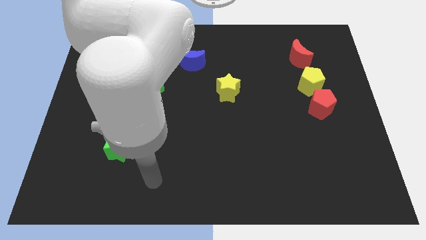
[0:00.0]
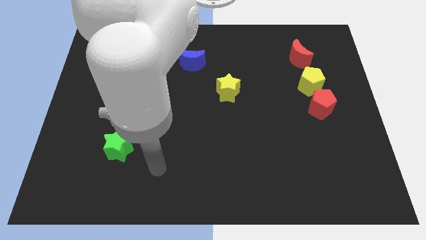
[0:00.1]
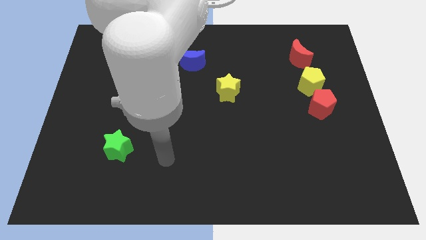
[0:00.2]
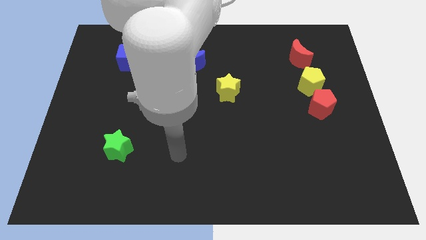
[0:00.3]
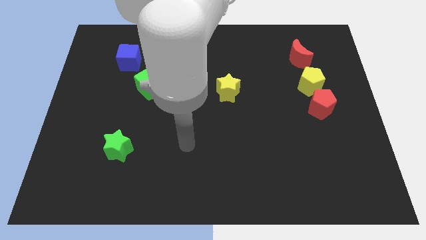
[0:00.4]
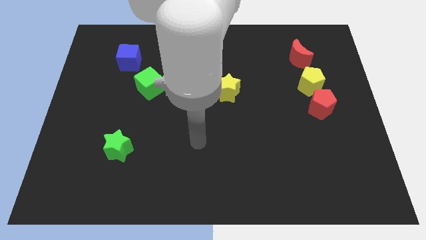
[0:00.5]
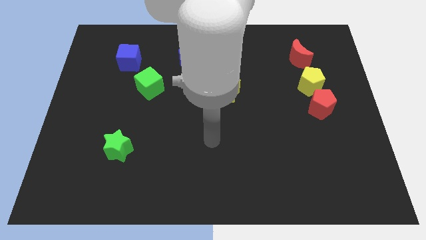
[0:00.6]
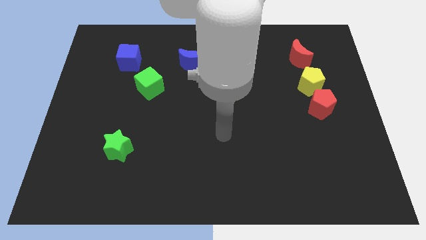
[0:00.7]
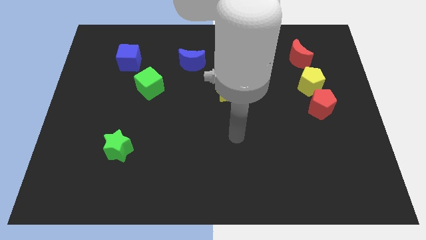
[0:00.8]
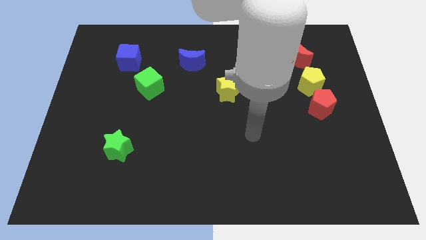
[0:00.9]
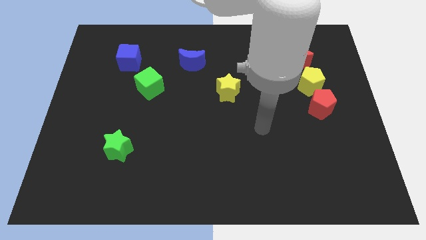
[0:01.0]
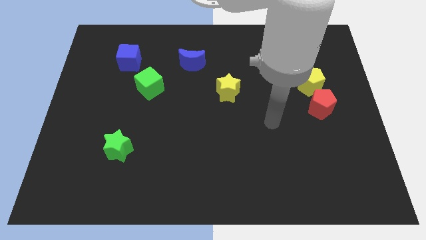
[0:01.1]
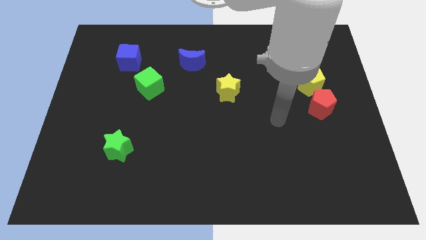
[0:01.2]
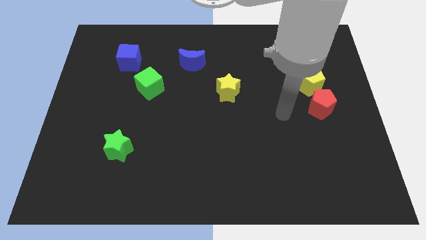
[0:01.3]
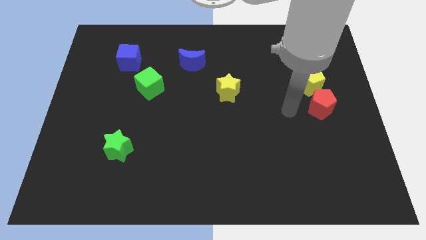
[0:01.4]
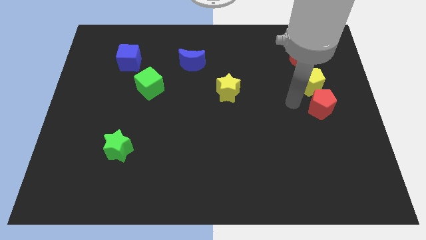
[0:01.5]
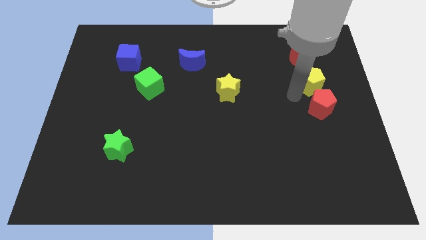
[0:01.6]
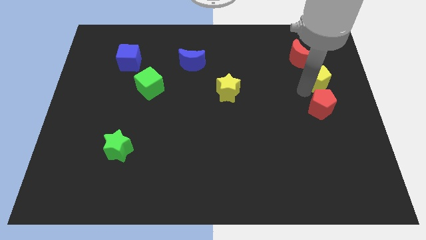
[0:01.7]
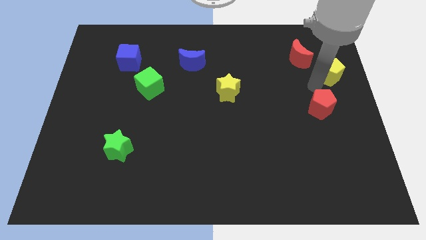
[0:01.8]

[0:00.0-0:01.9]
pull the red pentagon apart from the yellow pentagon

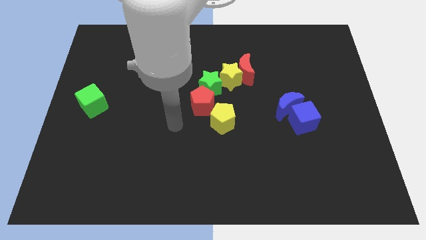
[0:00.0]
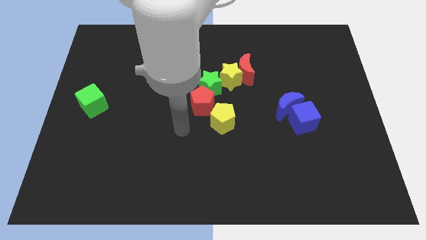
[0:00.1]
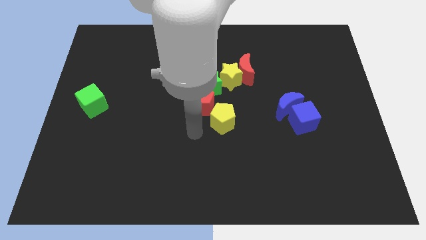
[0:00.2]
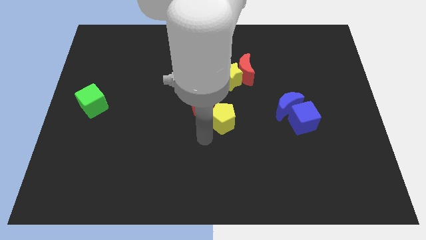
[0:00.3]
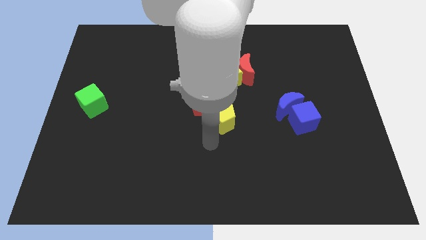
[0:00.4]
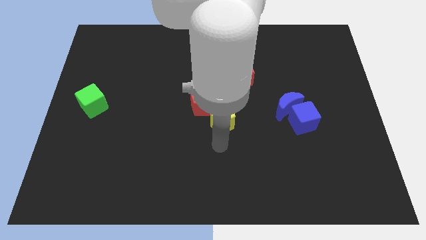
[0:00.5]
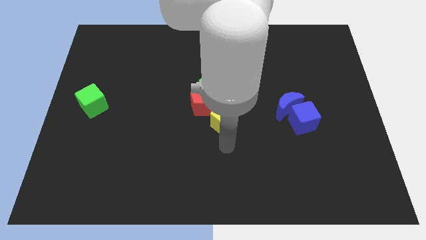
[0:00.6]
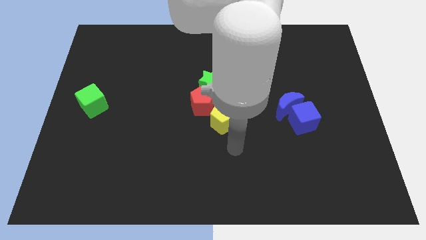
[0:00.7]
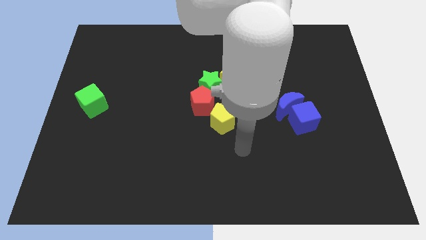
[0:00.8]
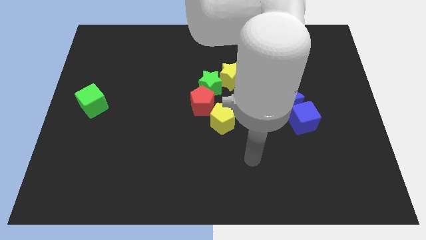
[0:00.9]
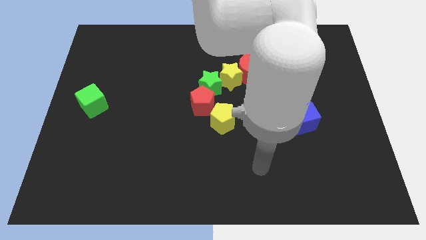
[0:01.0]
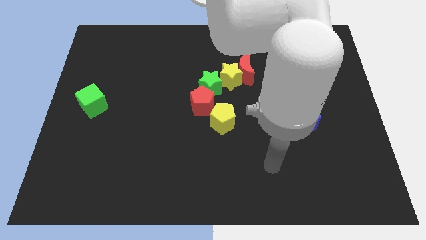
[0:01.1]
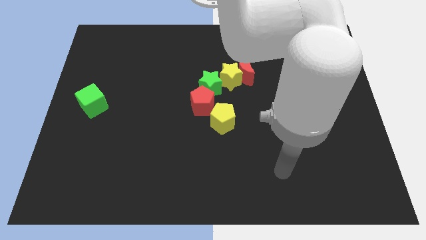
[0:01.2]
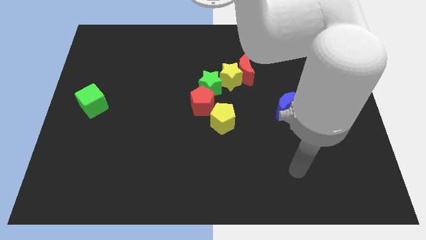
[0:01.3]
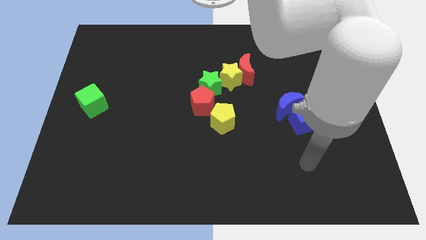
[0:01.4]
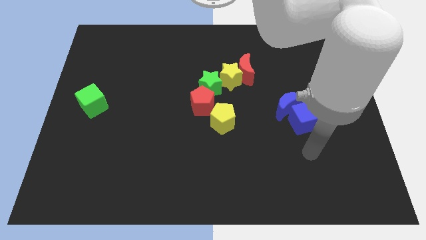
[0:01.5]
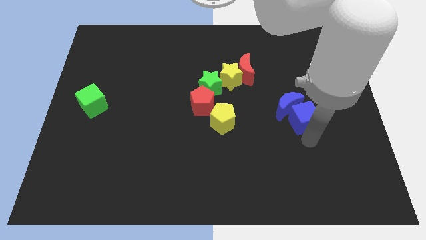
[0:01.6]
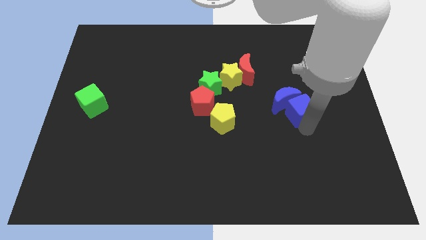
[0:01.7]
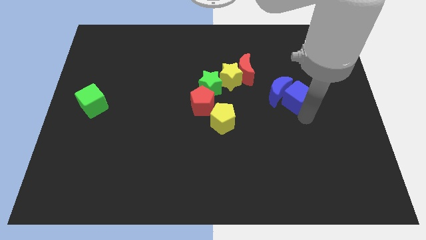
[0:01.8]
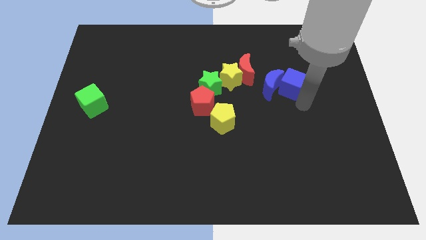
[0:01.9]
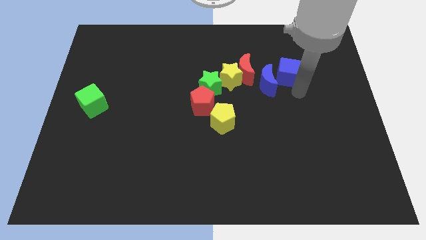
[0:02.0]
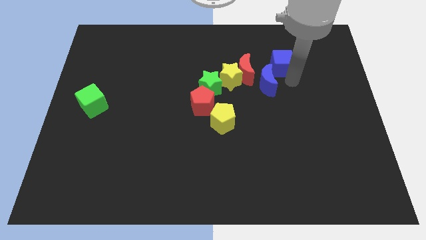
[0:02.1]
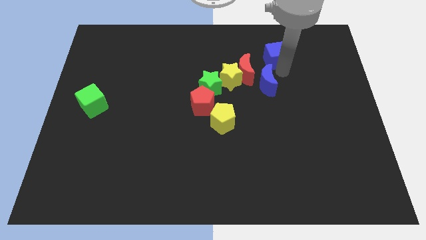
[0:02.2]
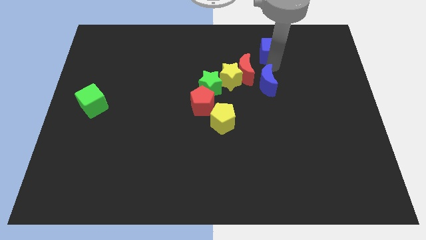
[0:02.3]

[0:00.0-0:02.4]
pull the blue moon apart from the blue cube

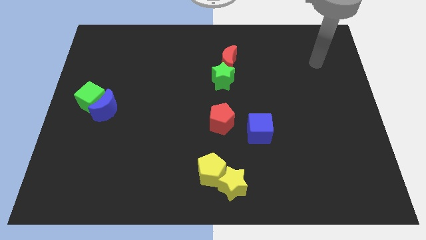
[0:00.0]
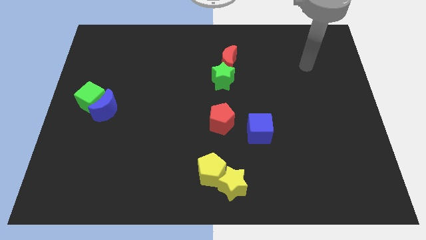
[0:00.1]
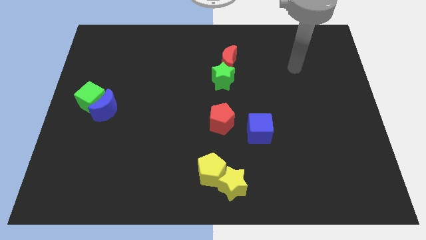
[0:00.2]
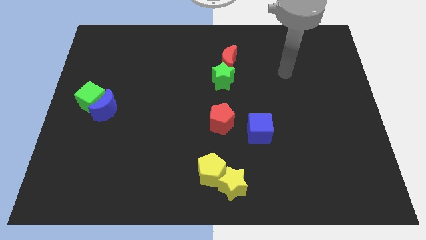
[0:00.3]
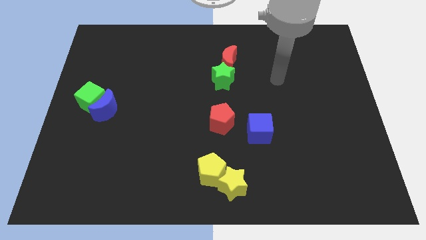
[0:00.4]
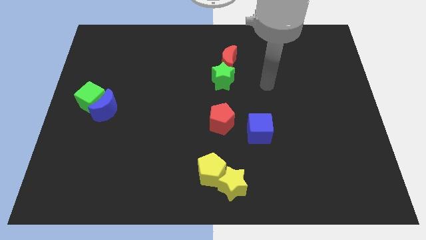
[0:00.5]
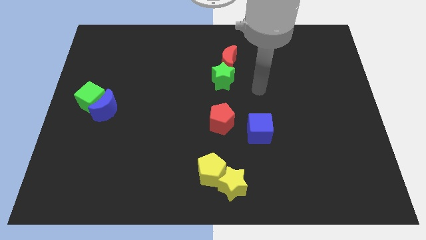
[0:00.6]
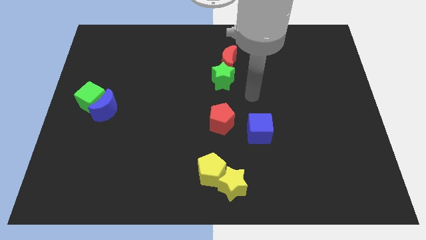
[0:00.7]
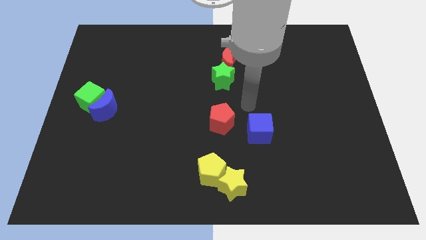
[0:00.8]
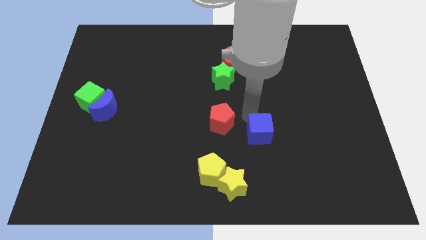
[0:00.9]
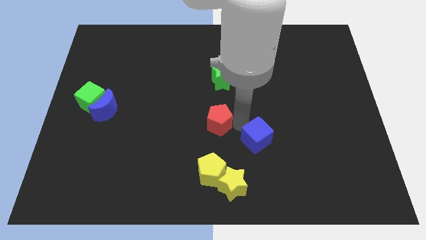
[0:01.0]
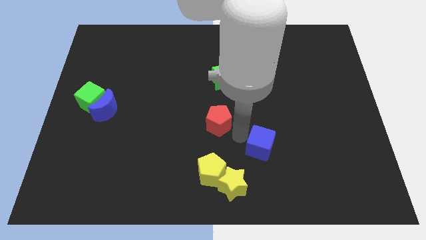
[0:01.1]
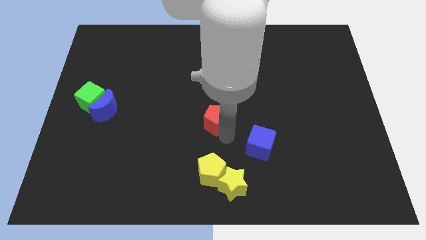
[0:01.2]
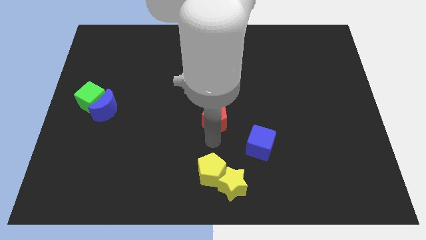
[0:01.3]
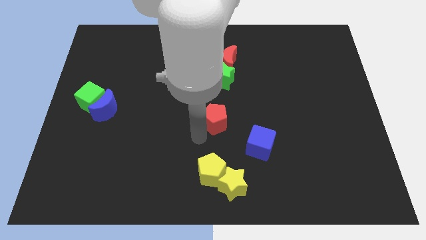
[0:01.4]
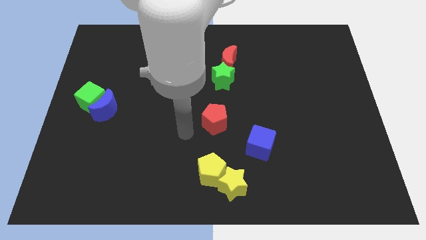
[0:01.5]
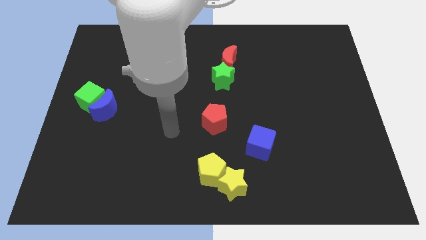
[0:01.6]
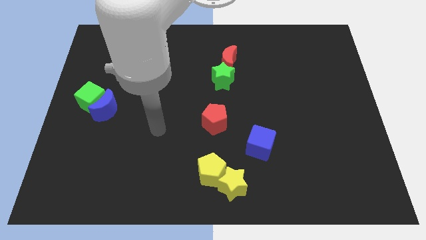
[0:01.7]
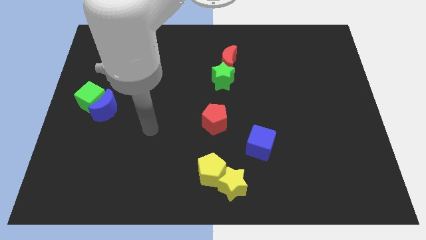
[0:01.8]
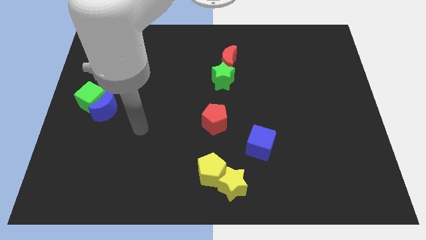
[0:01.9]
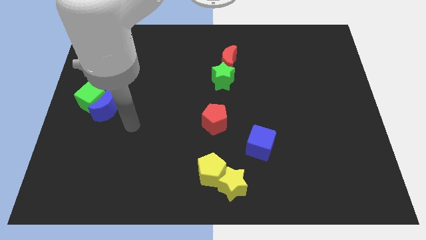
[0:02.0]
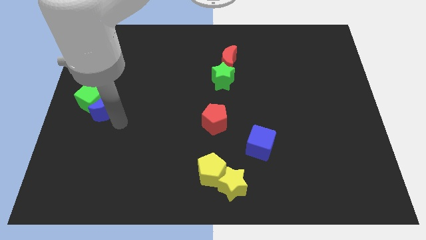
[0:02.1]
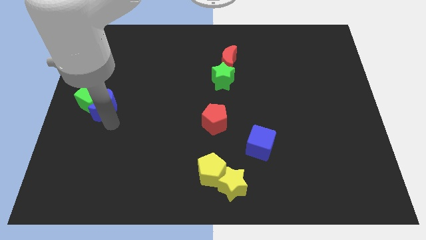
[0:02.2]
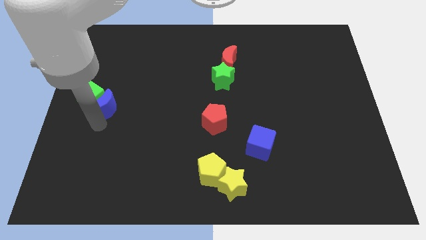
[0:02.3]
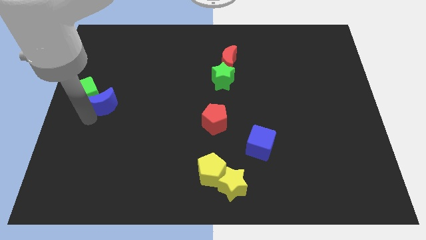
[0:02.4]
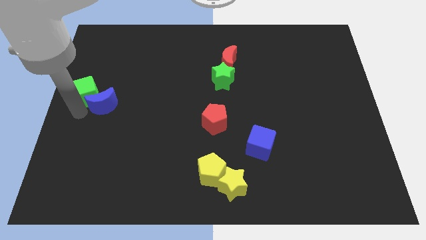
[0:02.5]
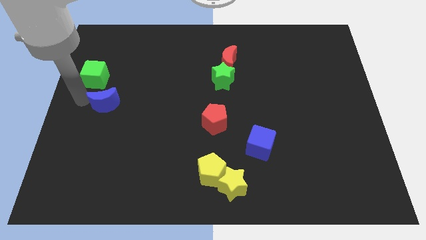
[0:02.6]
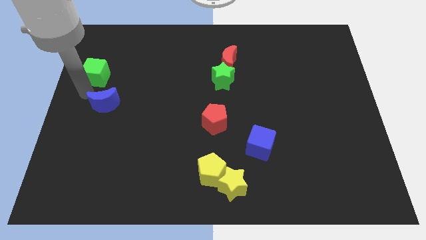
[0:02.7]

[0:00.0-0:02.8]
pull the blue moon apart from the green cube

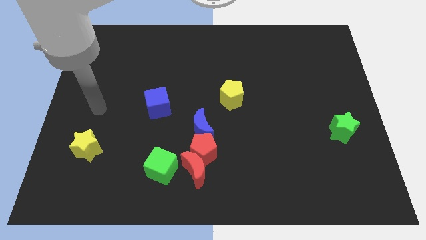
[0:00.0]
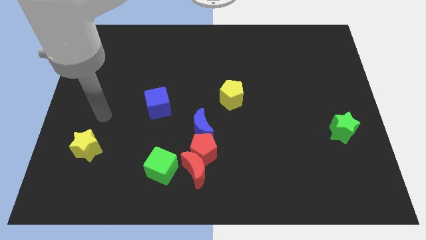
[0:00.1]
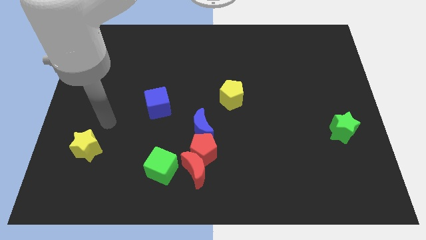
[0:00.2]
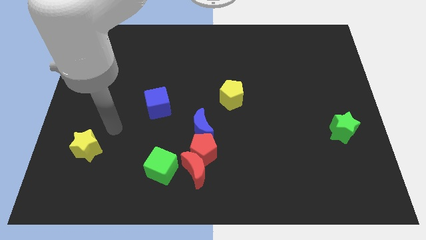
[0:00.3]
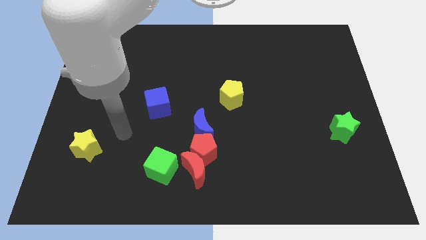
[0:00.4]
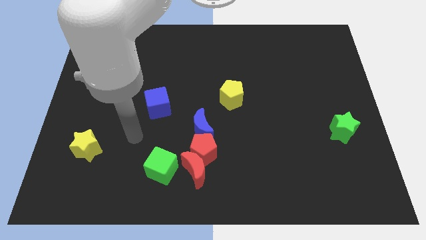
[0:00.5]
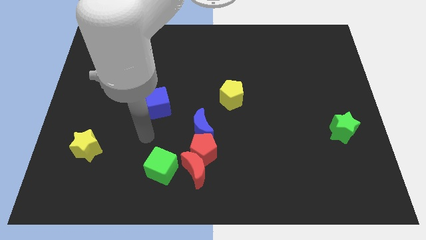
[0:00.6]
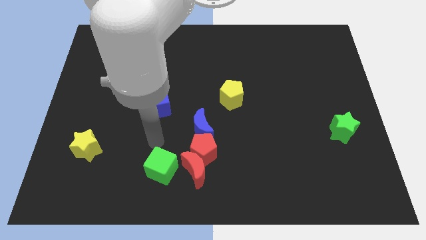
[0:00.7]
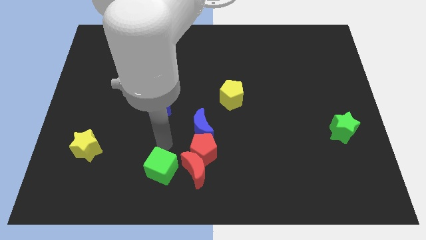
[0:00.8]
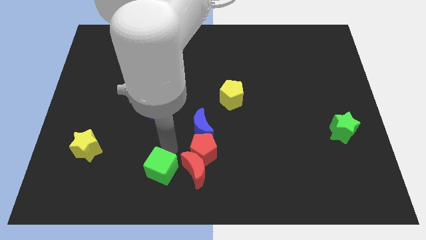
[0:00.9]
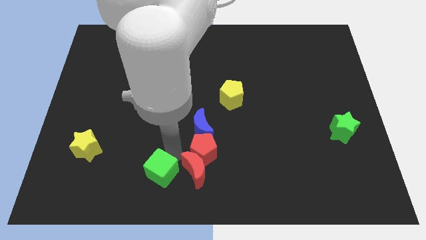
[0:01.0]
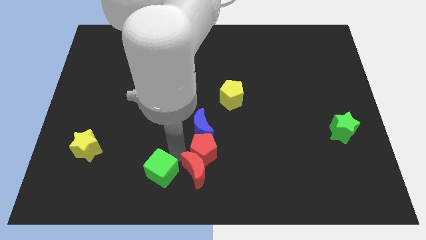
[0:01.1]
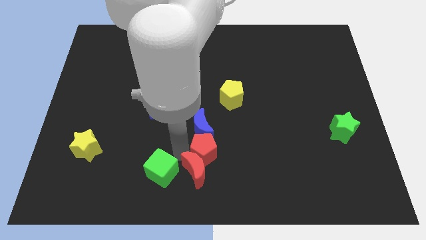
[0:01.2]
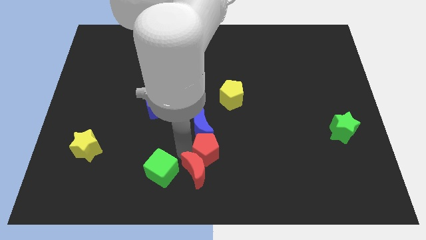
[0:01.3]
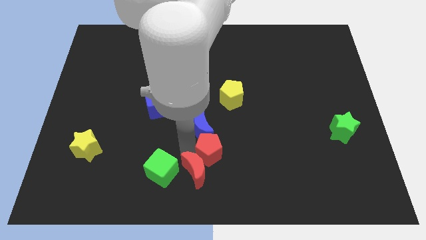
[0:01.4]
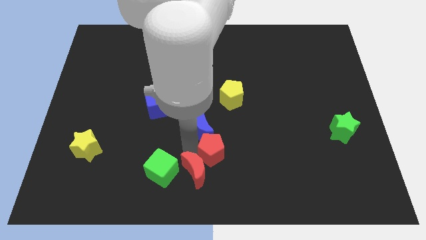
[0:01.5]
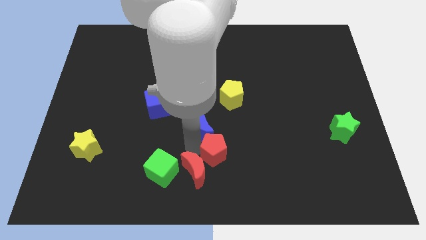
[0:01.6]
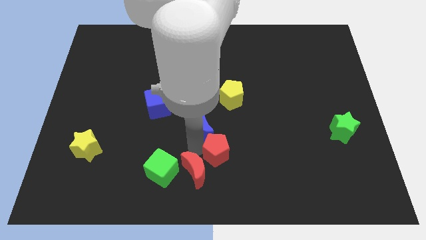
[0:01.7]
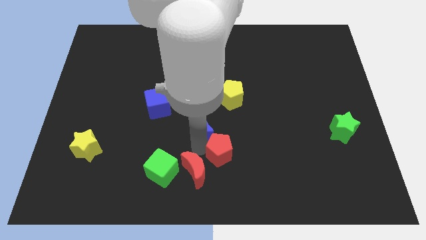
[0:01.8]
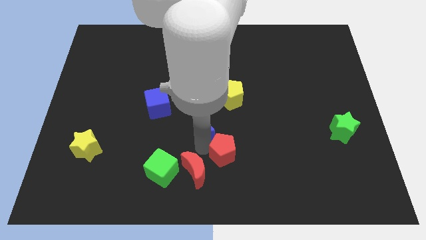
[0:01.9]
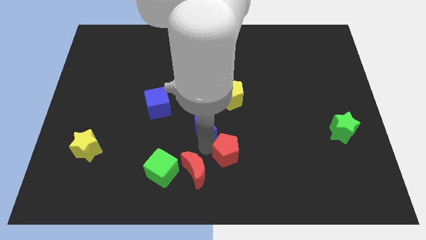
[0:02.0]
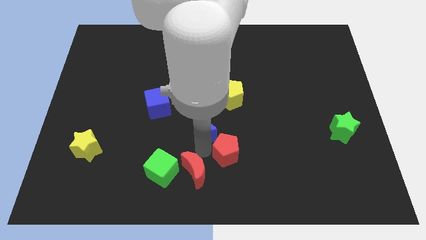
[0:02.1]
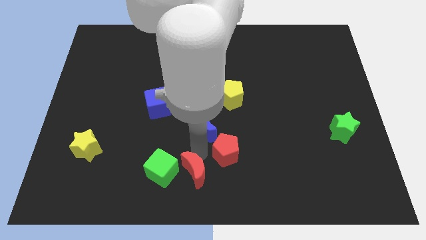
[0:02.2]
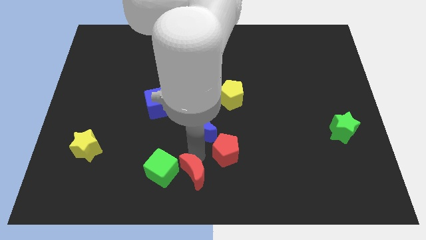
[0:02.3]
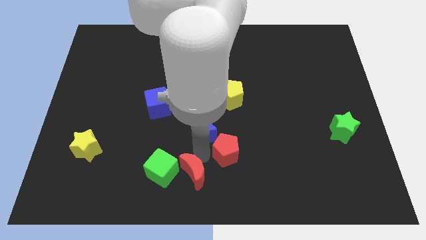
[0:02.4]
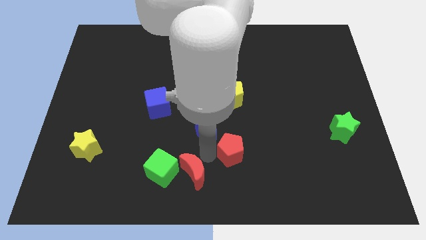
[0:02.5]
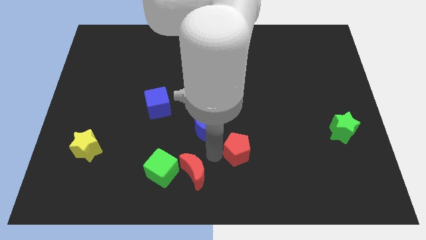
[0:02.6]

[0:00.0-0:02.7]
move the red pentagon away from the red moon, blue moon, and green cube
